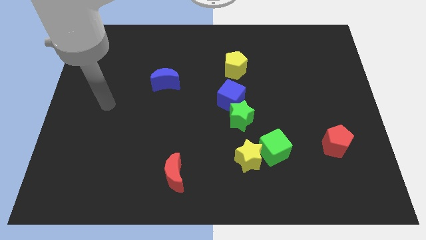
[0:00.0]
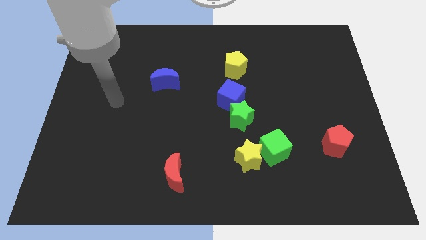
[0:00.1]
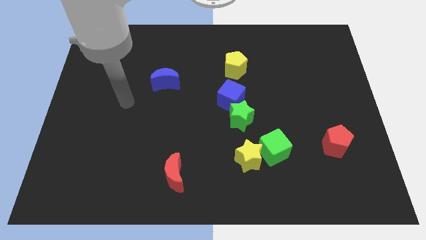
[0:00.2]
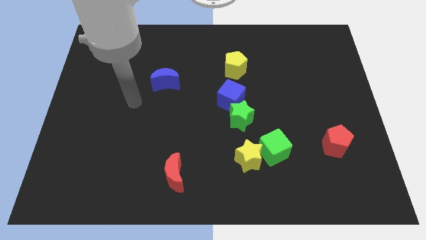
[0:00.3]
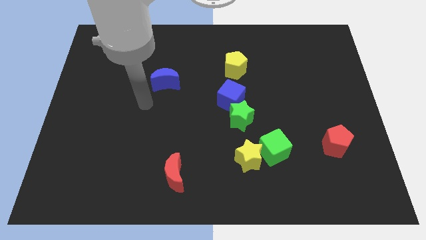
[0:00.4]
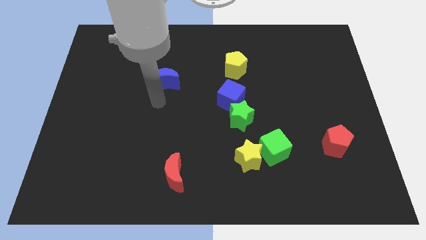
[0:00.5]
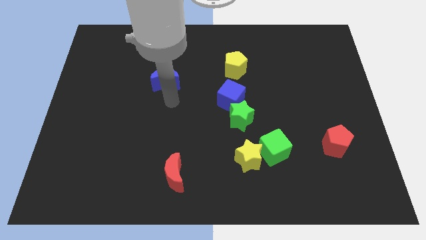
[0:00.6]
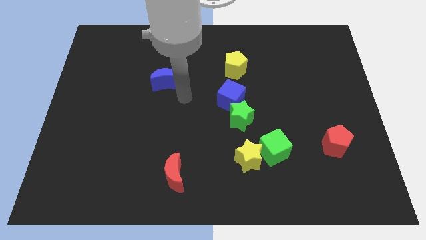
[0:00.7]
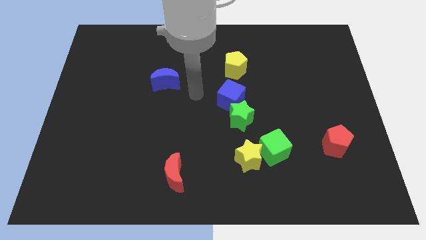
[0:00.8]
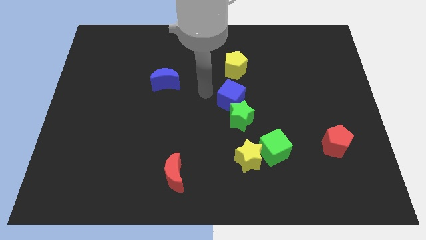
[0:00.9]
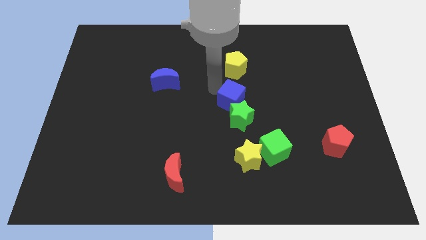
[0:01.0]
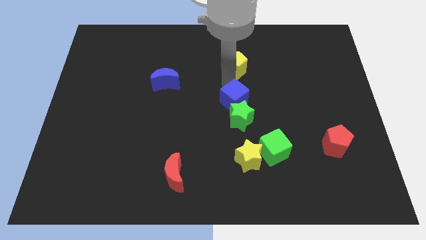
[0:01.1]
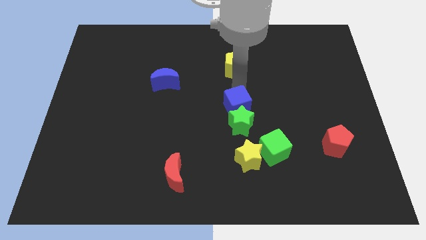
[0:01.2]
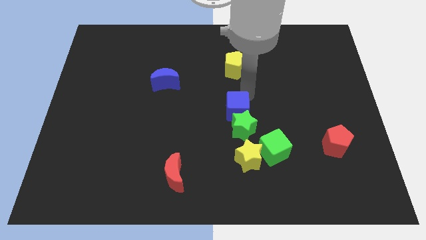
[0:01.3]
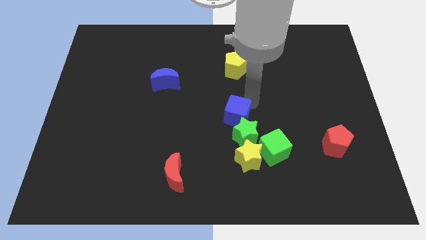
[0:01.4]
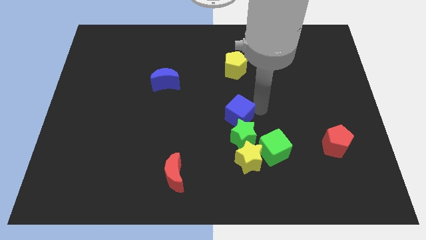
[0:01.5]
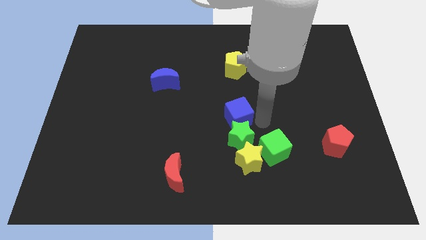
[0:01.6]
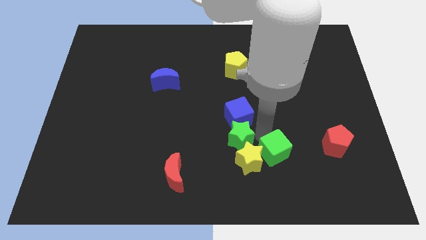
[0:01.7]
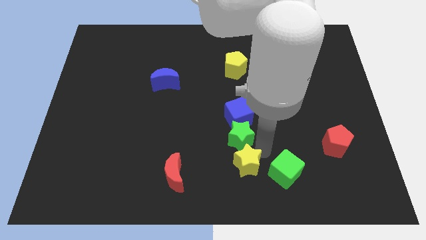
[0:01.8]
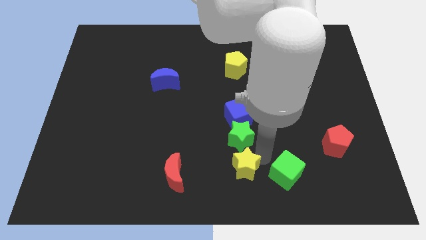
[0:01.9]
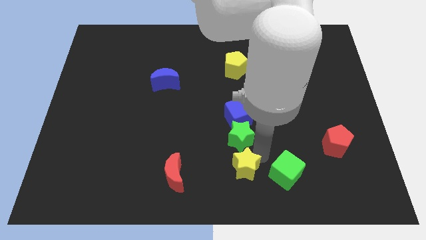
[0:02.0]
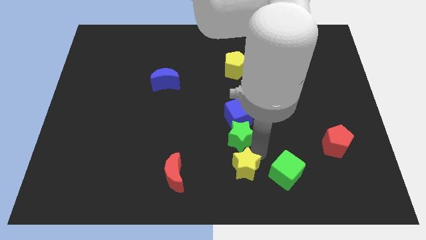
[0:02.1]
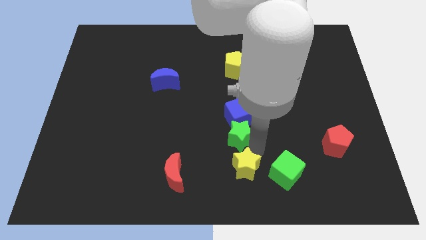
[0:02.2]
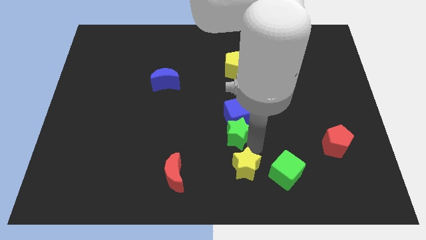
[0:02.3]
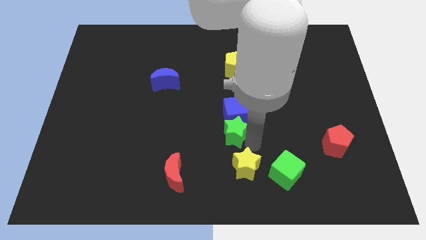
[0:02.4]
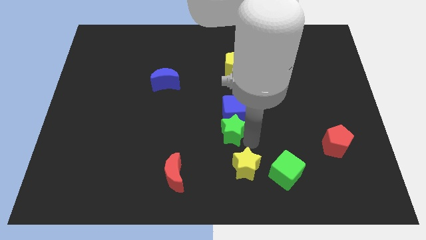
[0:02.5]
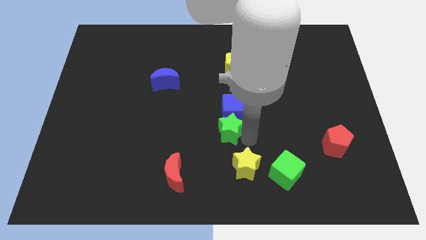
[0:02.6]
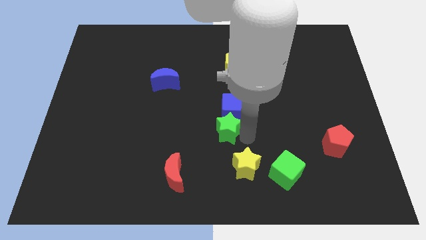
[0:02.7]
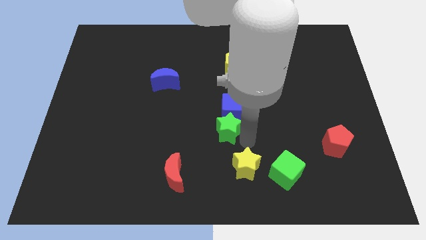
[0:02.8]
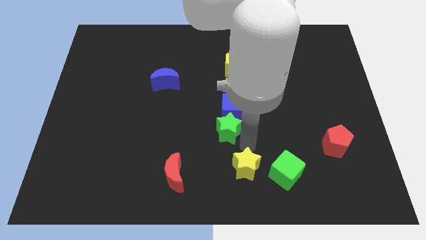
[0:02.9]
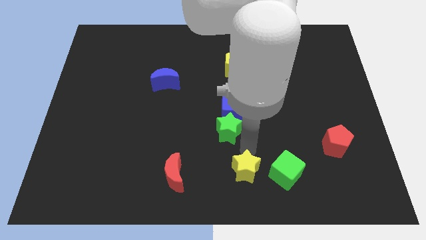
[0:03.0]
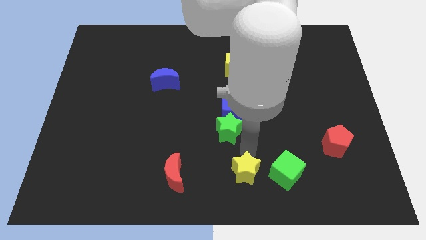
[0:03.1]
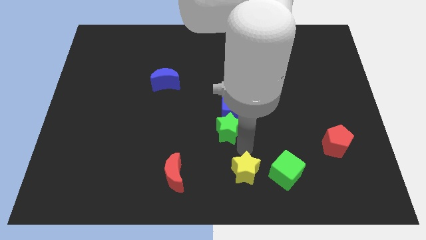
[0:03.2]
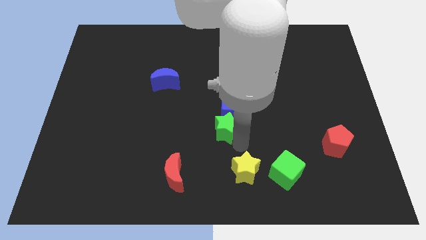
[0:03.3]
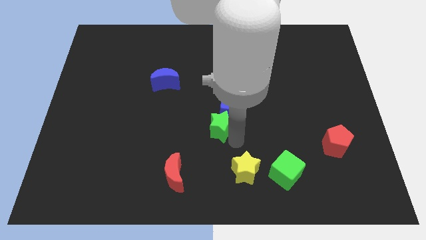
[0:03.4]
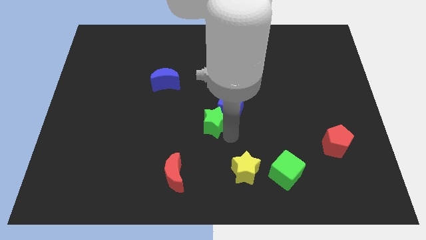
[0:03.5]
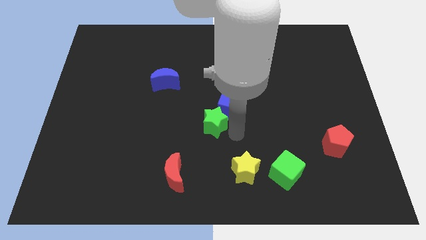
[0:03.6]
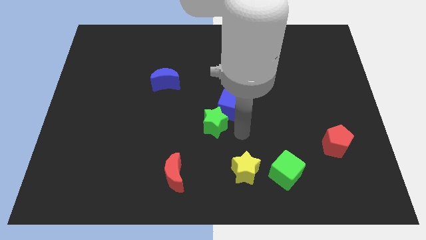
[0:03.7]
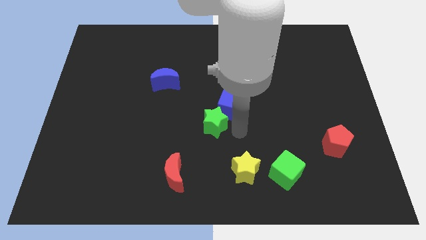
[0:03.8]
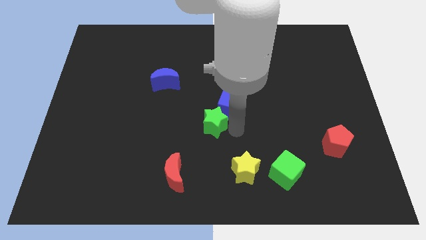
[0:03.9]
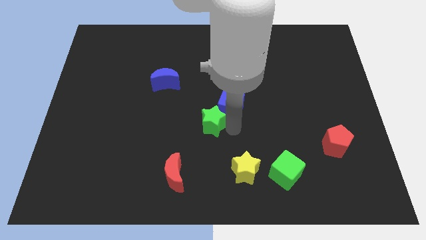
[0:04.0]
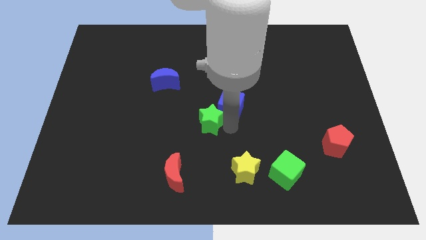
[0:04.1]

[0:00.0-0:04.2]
slightly slide the green star to the left

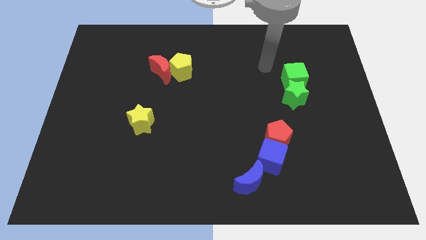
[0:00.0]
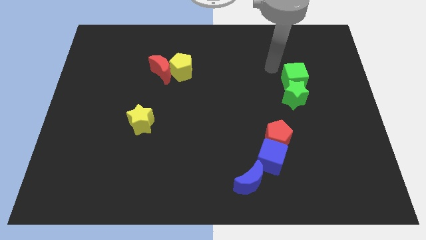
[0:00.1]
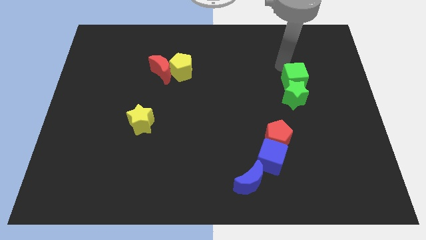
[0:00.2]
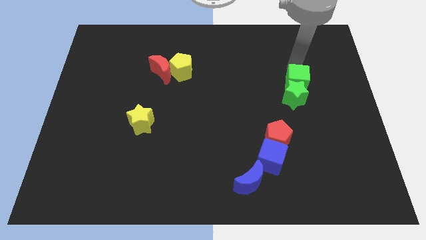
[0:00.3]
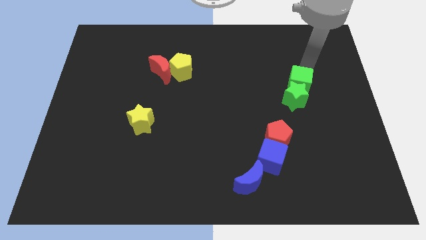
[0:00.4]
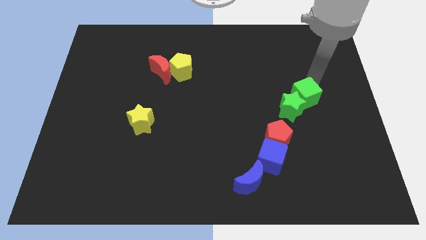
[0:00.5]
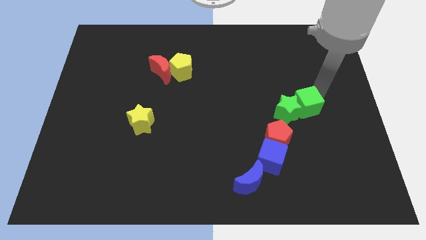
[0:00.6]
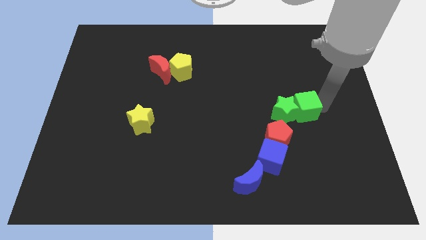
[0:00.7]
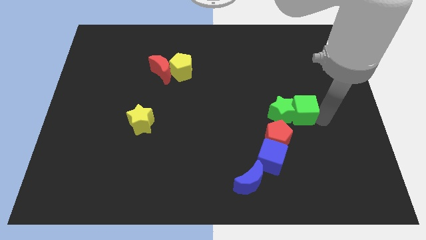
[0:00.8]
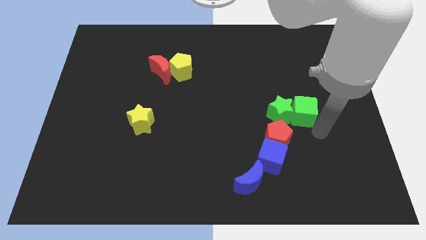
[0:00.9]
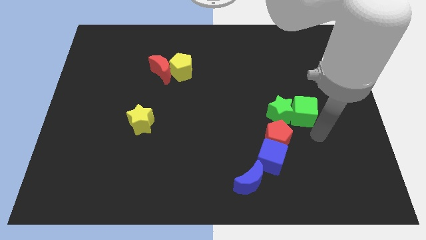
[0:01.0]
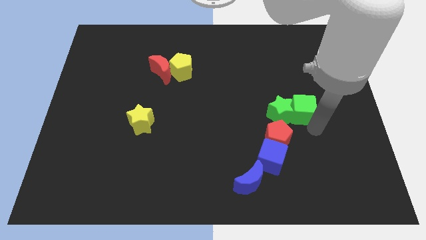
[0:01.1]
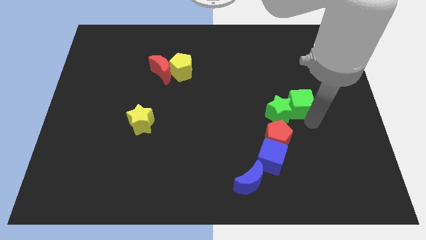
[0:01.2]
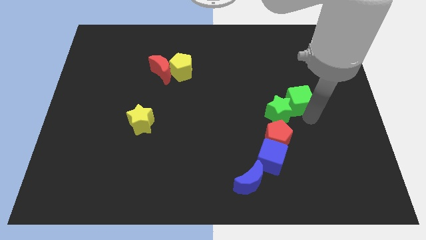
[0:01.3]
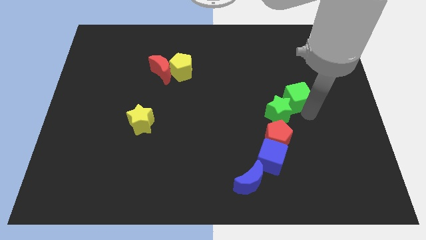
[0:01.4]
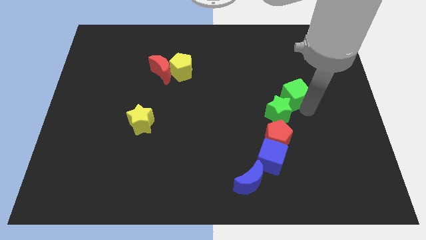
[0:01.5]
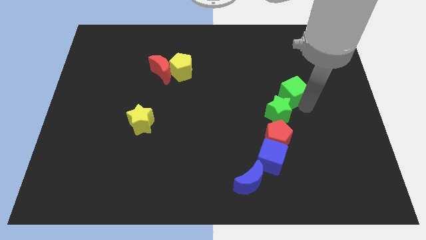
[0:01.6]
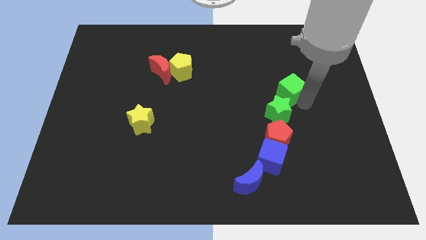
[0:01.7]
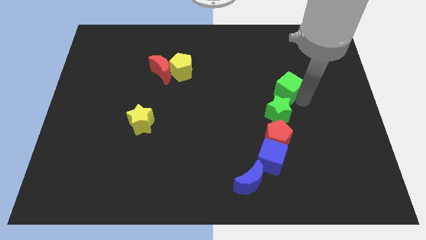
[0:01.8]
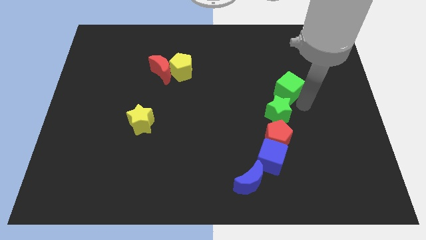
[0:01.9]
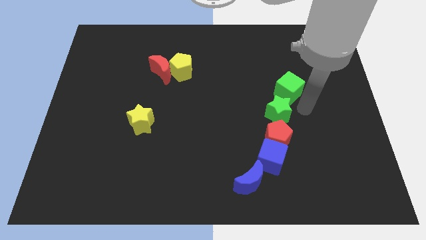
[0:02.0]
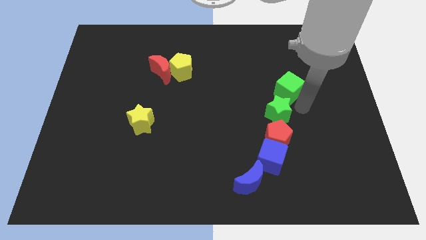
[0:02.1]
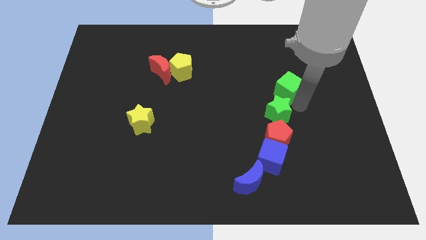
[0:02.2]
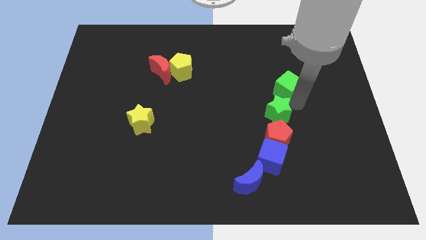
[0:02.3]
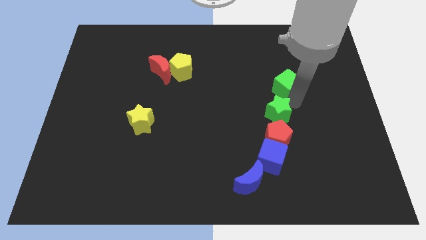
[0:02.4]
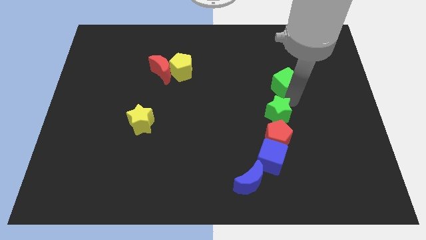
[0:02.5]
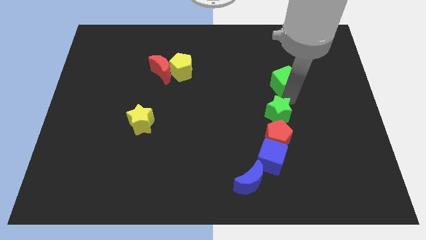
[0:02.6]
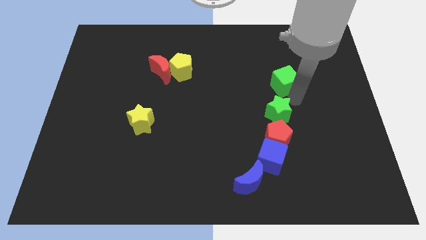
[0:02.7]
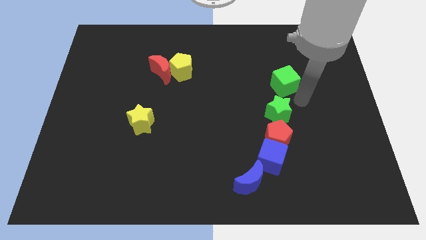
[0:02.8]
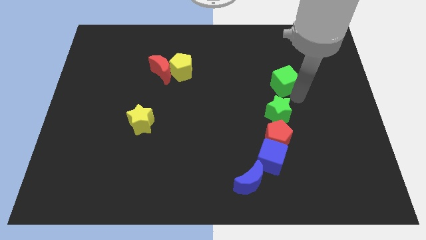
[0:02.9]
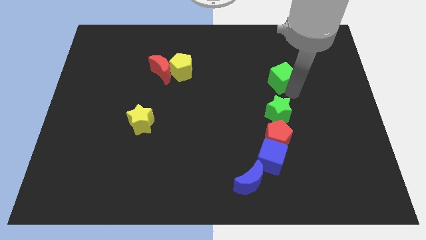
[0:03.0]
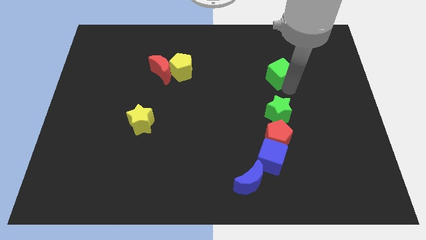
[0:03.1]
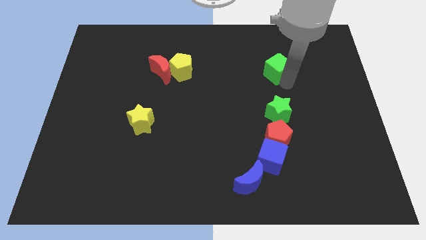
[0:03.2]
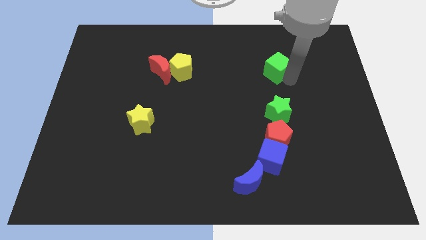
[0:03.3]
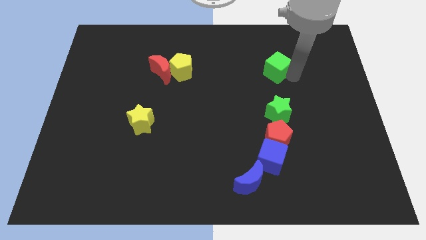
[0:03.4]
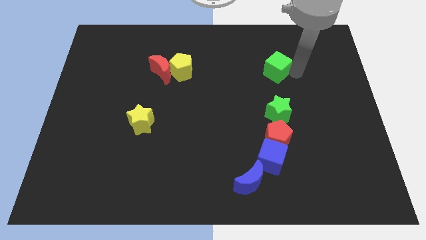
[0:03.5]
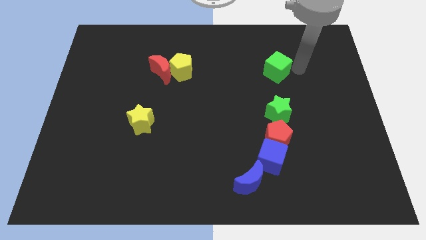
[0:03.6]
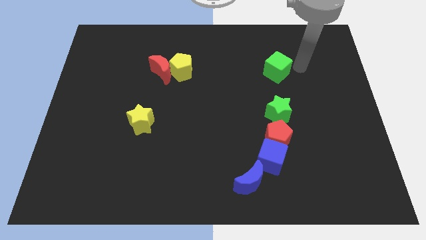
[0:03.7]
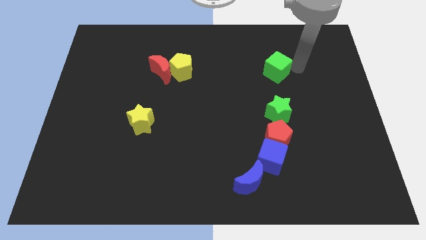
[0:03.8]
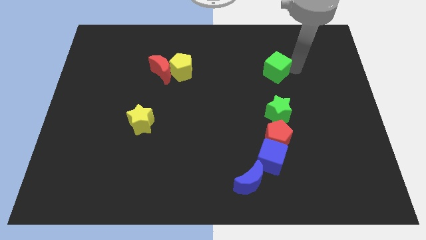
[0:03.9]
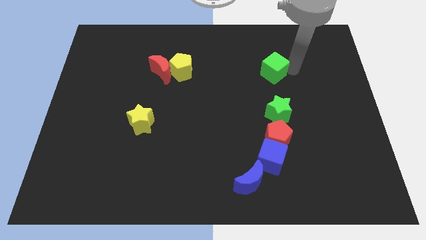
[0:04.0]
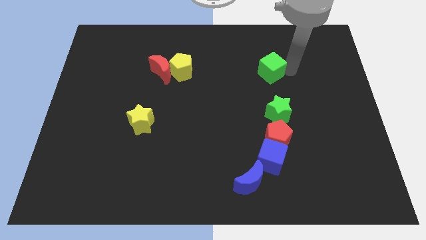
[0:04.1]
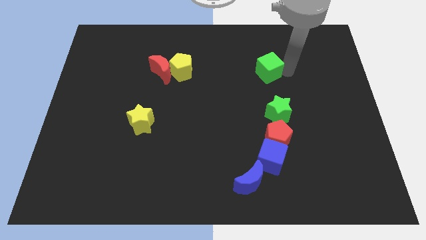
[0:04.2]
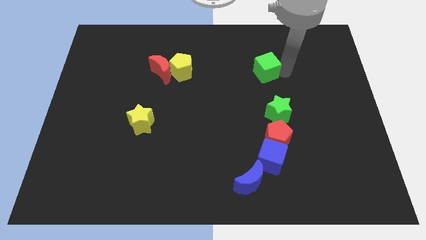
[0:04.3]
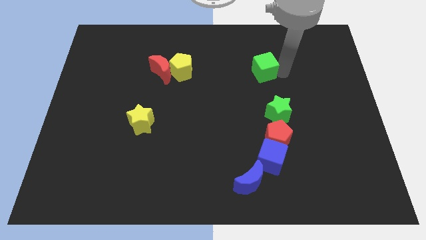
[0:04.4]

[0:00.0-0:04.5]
push the green cube slightly to the left

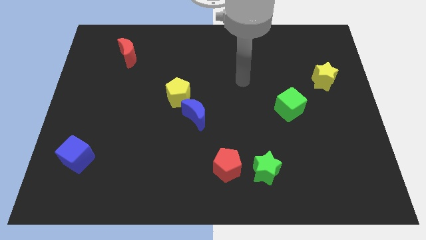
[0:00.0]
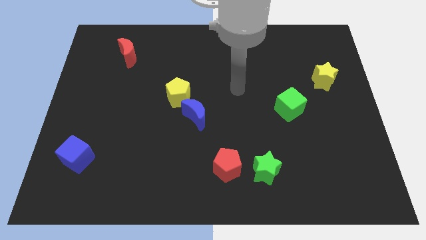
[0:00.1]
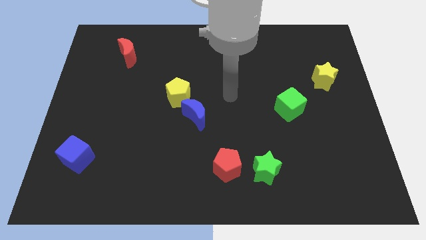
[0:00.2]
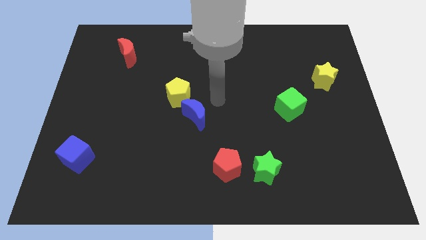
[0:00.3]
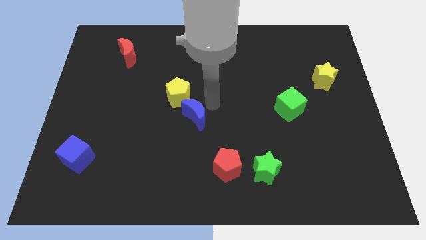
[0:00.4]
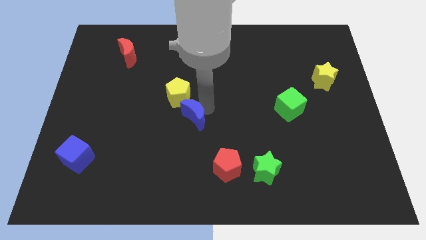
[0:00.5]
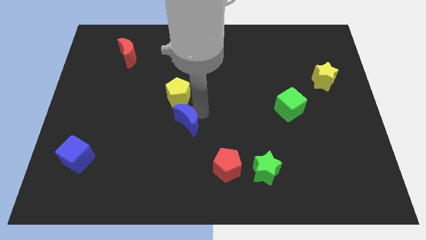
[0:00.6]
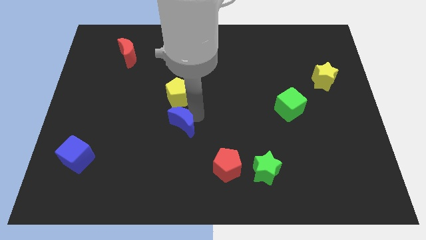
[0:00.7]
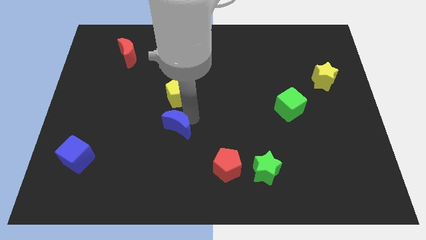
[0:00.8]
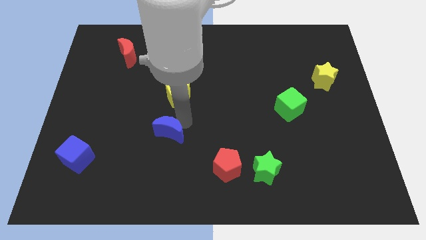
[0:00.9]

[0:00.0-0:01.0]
move the blue moon downwards and to the left a little bit
